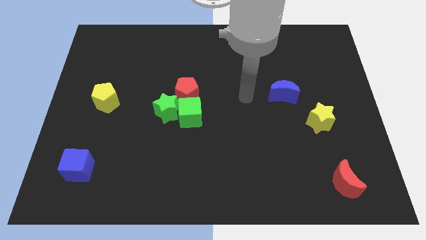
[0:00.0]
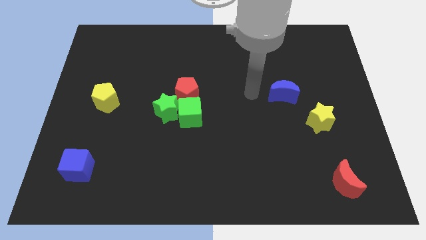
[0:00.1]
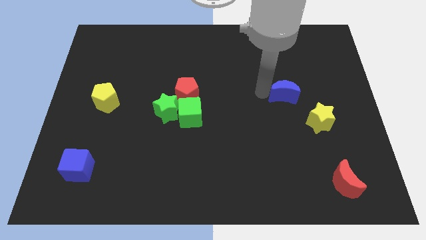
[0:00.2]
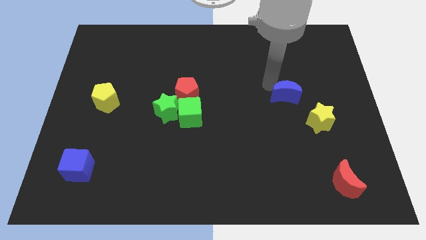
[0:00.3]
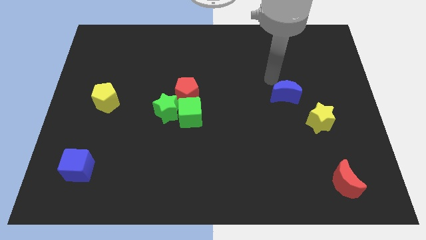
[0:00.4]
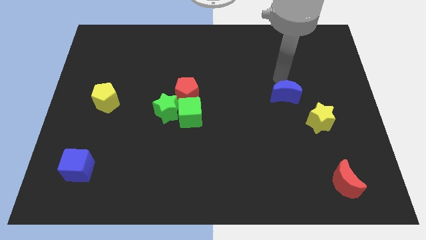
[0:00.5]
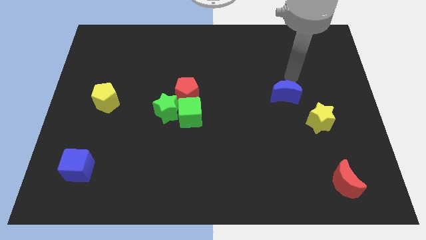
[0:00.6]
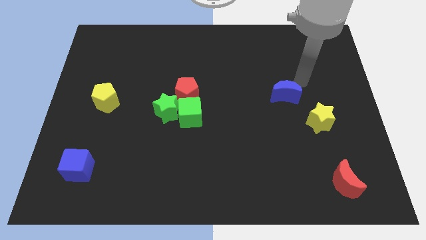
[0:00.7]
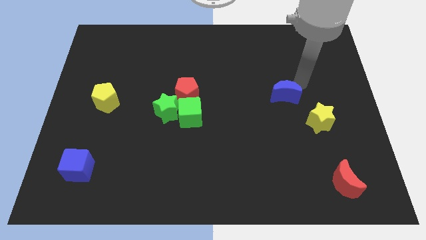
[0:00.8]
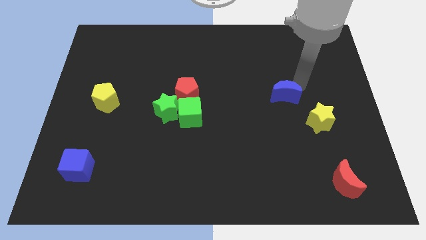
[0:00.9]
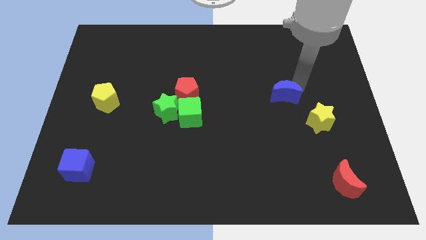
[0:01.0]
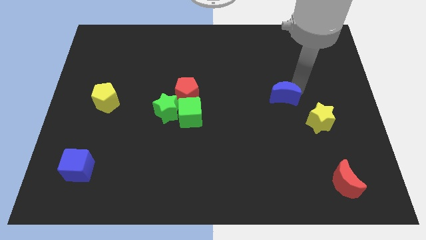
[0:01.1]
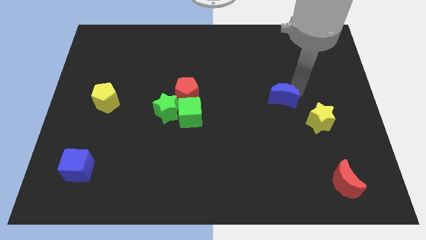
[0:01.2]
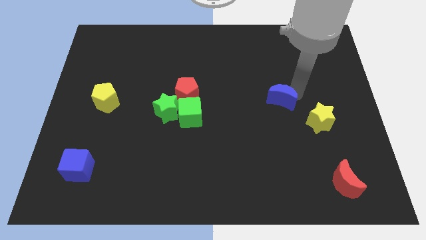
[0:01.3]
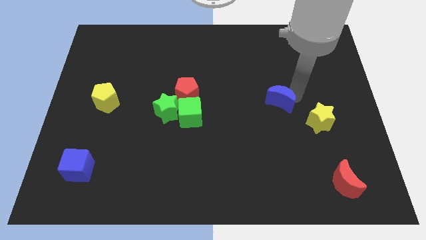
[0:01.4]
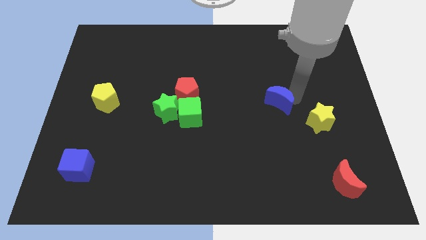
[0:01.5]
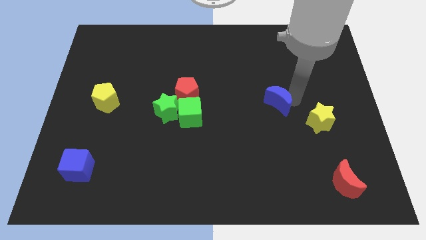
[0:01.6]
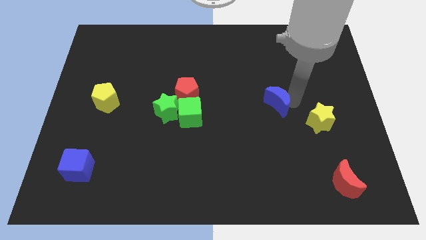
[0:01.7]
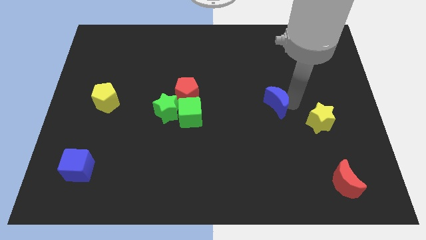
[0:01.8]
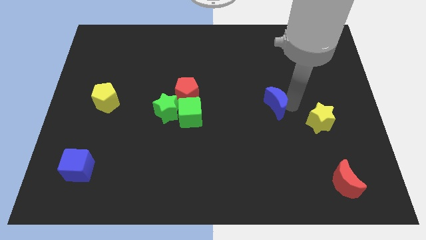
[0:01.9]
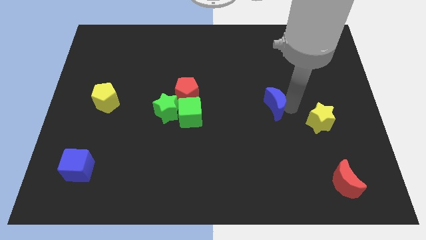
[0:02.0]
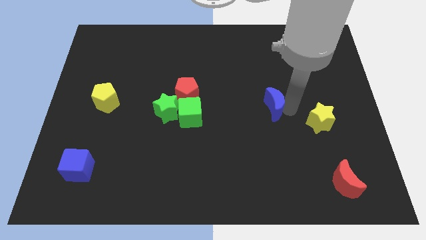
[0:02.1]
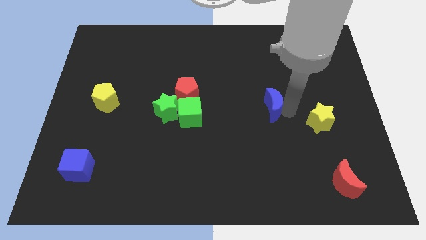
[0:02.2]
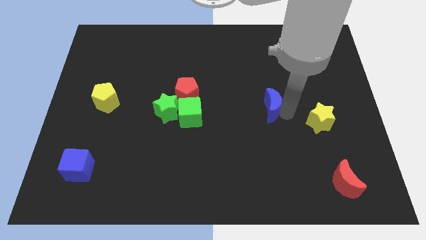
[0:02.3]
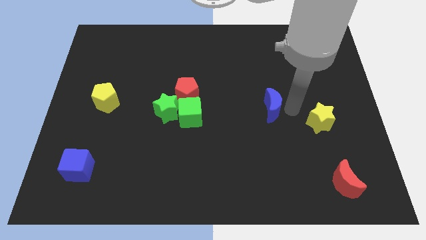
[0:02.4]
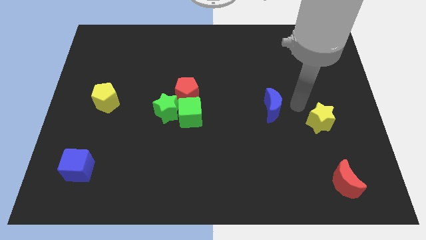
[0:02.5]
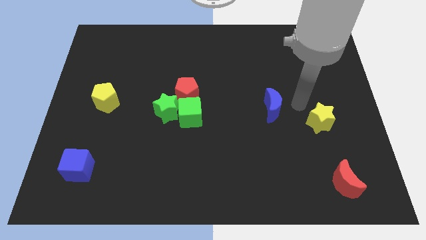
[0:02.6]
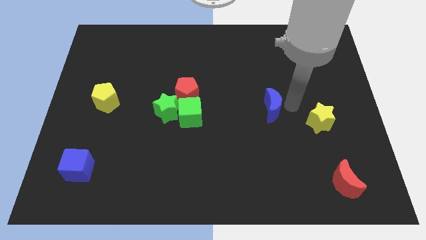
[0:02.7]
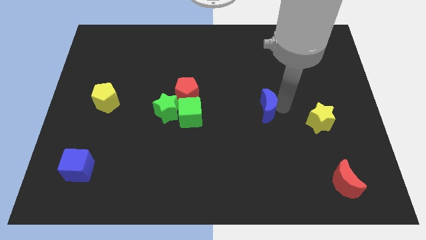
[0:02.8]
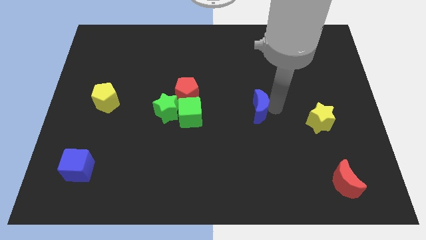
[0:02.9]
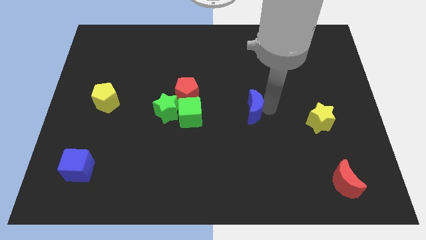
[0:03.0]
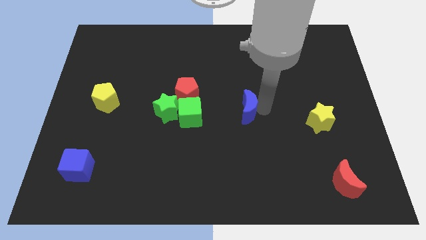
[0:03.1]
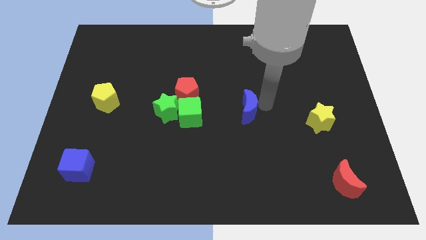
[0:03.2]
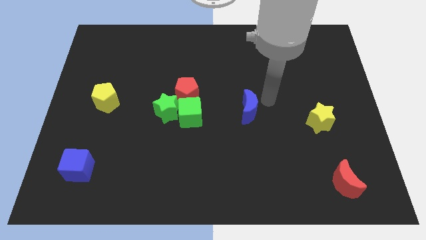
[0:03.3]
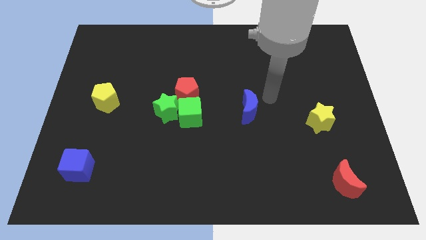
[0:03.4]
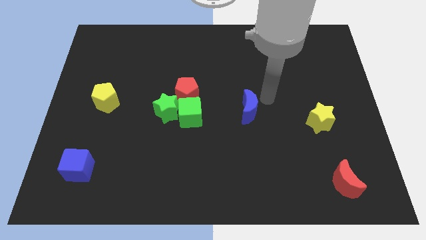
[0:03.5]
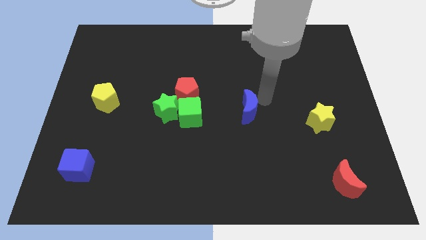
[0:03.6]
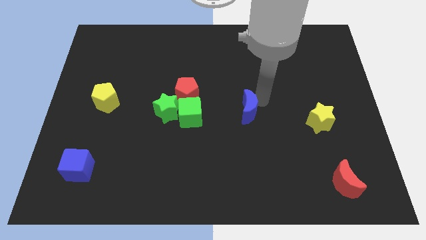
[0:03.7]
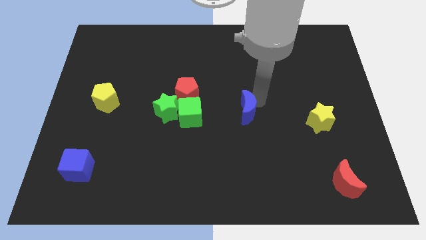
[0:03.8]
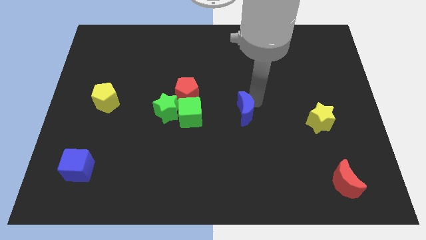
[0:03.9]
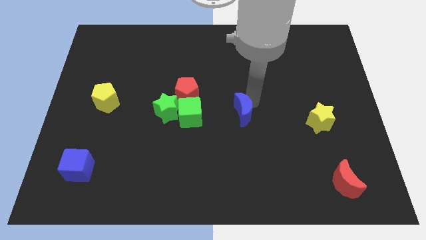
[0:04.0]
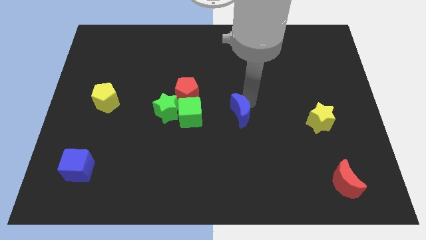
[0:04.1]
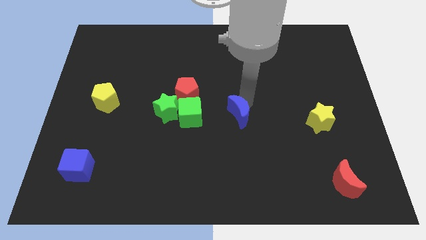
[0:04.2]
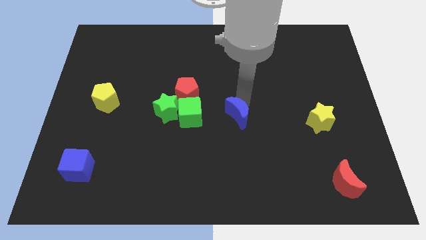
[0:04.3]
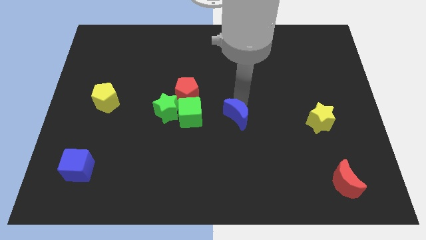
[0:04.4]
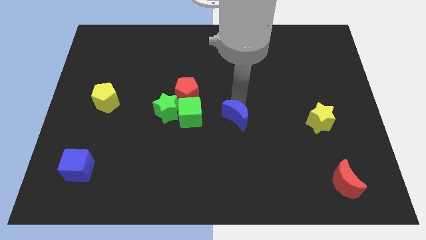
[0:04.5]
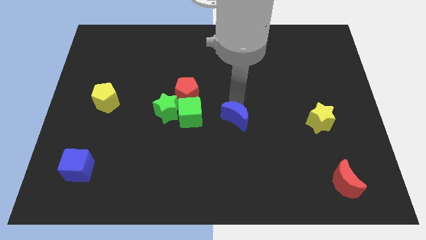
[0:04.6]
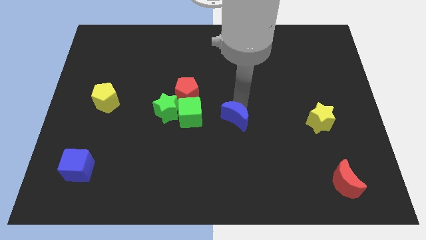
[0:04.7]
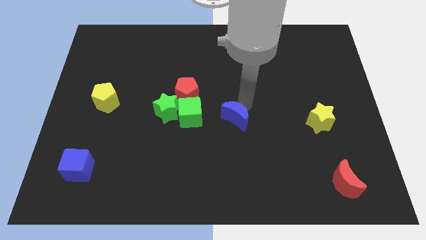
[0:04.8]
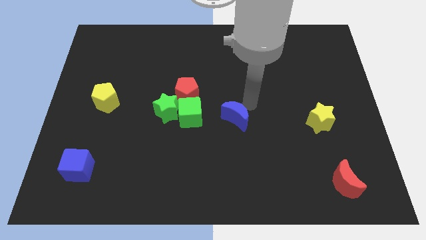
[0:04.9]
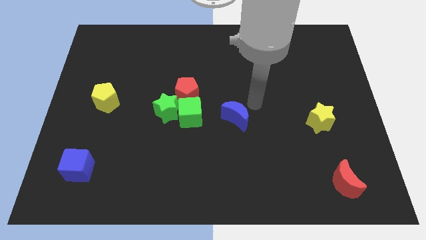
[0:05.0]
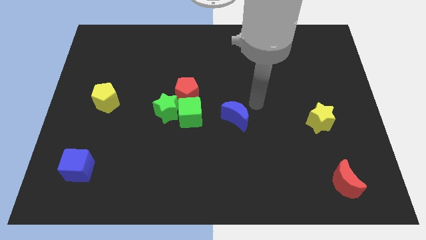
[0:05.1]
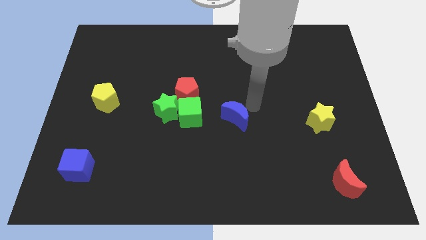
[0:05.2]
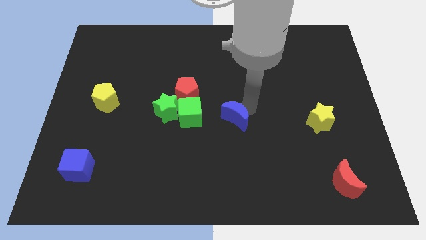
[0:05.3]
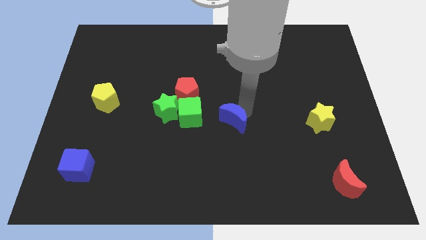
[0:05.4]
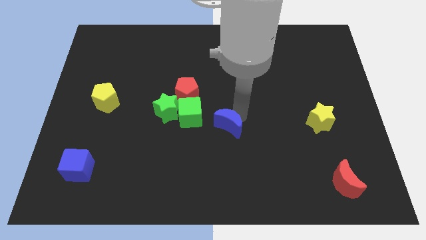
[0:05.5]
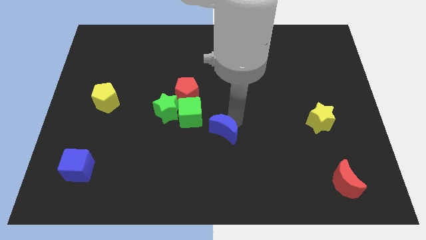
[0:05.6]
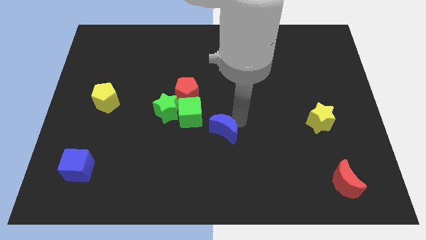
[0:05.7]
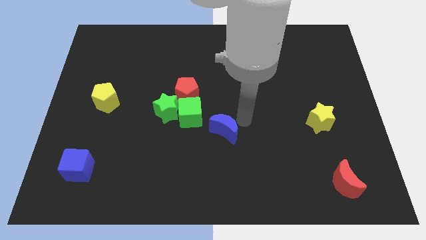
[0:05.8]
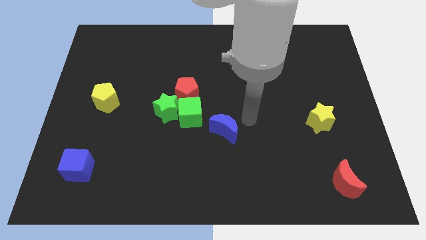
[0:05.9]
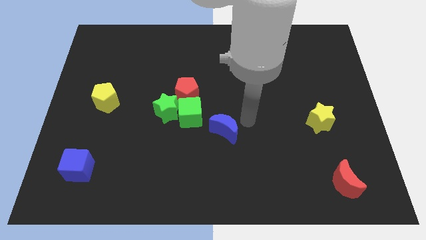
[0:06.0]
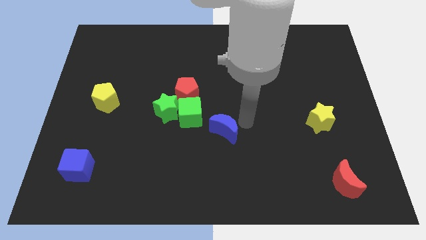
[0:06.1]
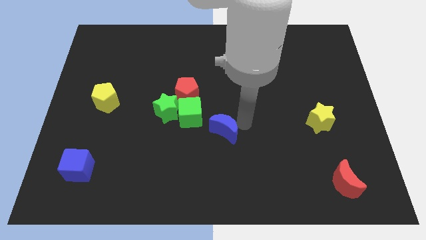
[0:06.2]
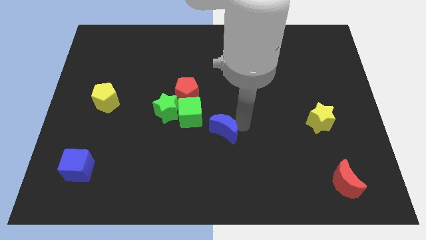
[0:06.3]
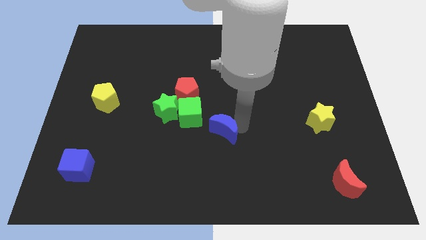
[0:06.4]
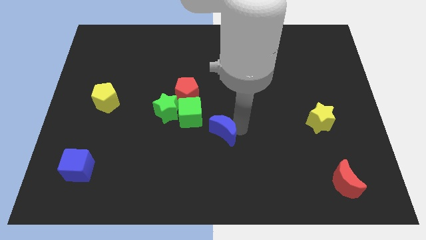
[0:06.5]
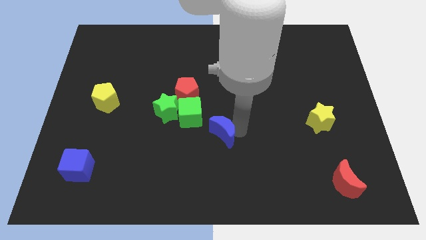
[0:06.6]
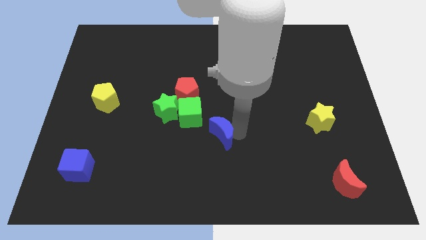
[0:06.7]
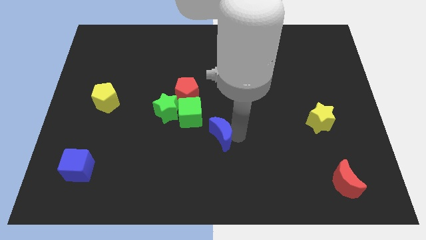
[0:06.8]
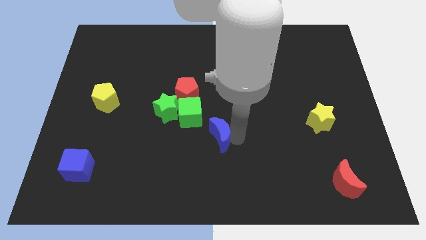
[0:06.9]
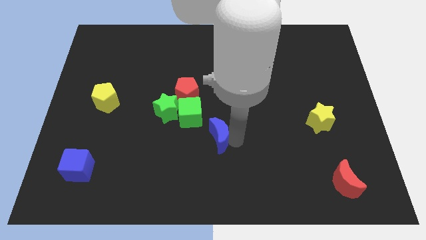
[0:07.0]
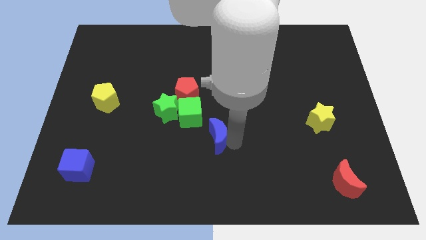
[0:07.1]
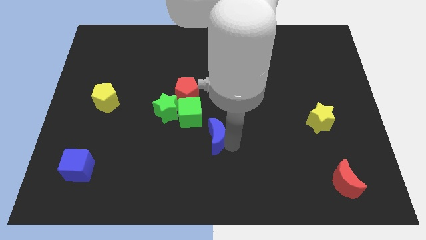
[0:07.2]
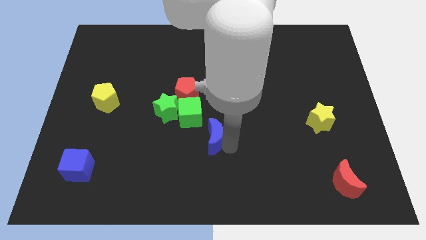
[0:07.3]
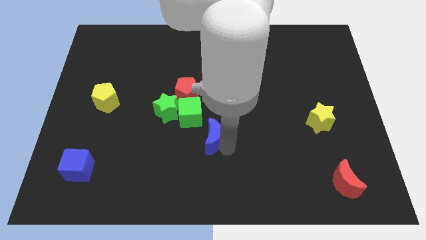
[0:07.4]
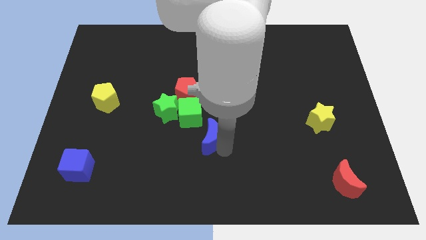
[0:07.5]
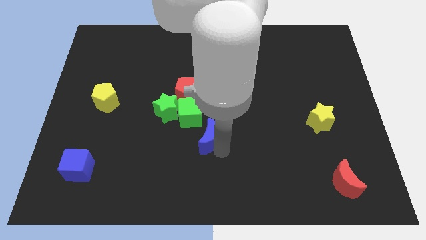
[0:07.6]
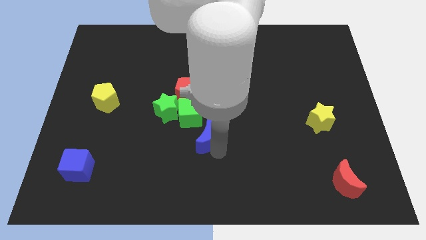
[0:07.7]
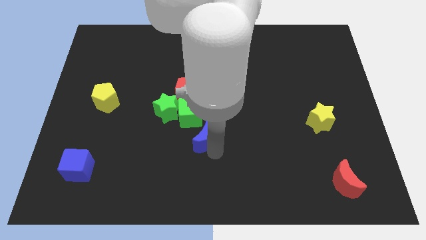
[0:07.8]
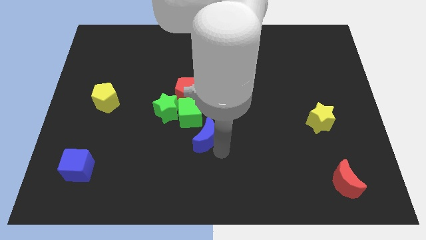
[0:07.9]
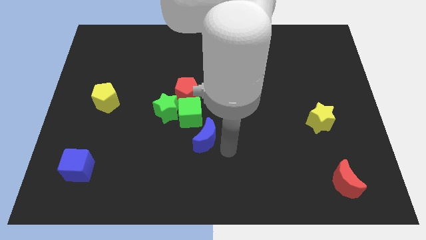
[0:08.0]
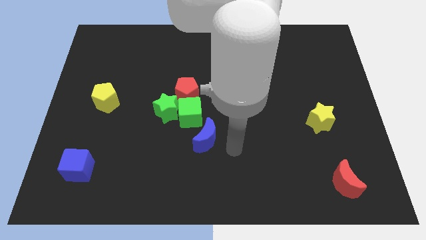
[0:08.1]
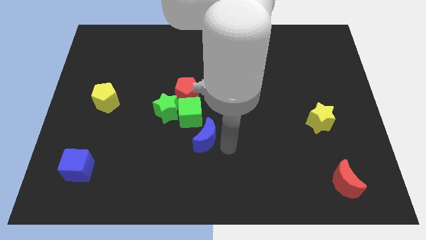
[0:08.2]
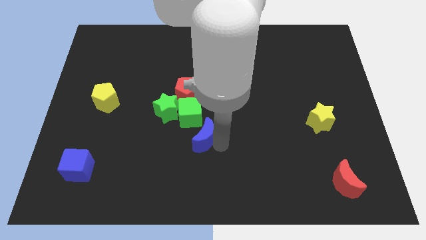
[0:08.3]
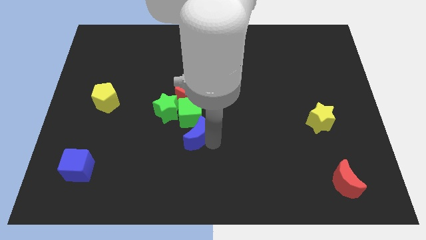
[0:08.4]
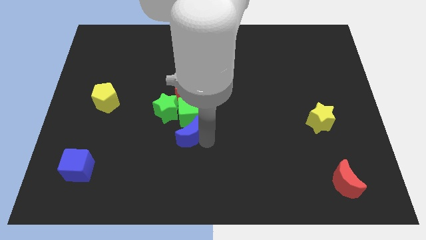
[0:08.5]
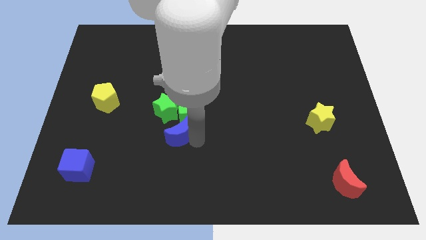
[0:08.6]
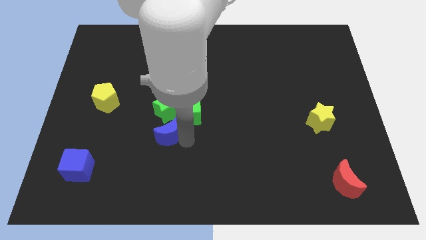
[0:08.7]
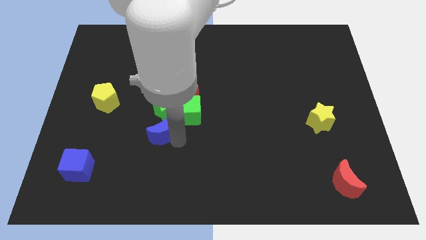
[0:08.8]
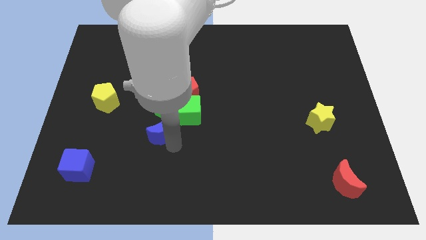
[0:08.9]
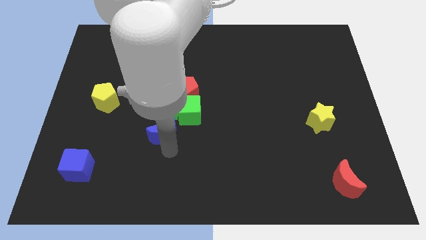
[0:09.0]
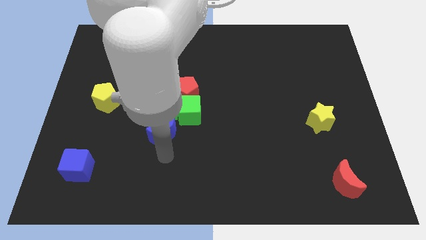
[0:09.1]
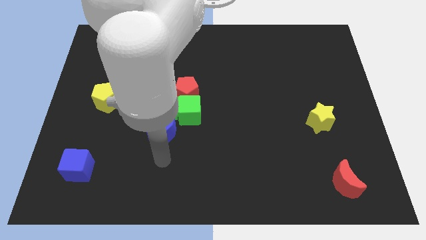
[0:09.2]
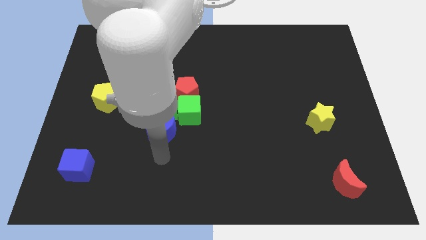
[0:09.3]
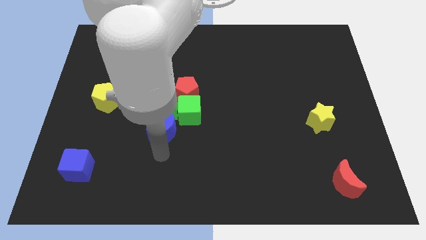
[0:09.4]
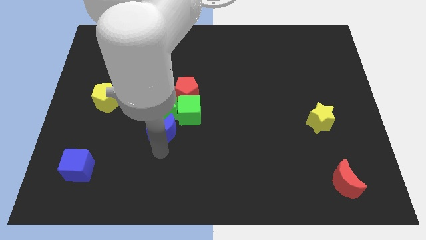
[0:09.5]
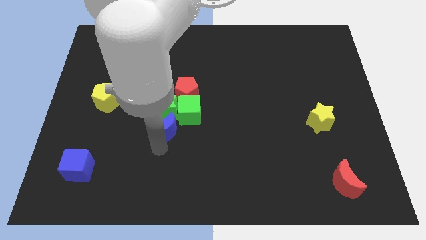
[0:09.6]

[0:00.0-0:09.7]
slide the blue moon close to the green star
